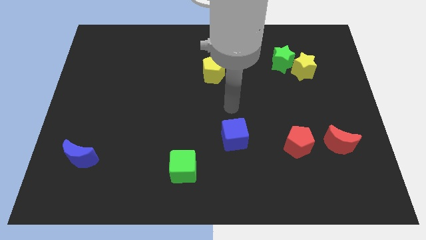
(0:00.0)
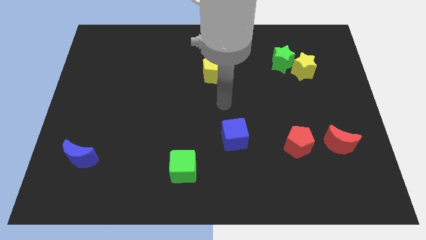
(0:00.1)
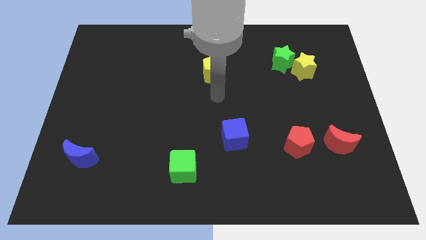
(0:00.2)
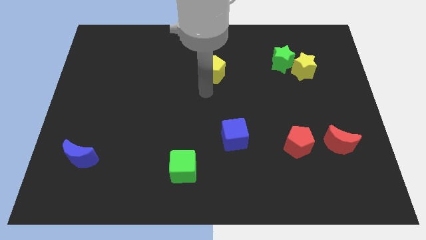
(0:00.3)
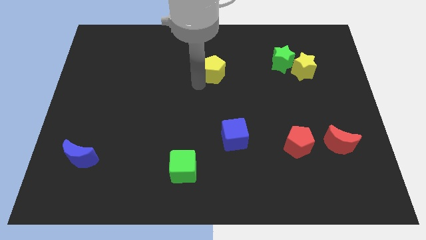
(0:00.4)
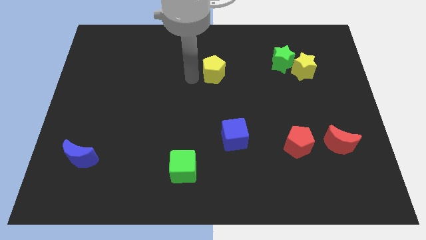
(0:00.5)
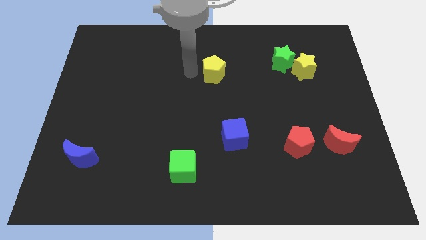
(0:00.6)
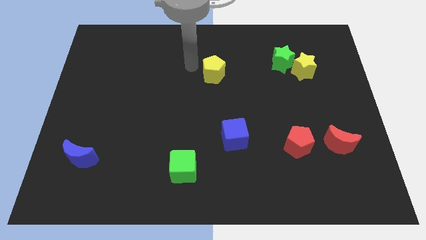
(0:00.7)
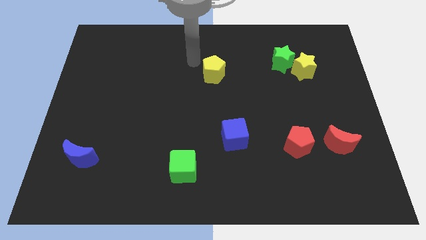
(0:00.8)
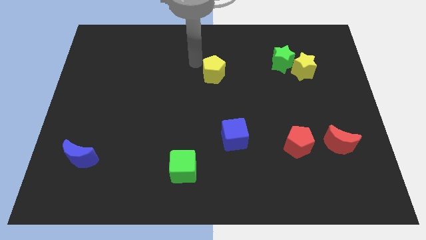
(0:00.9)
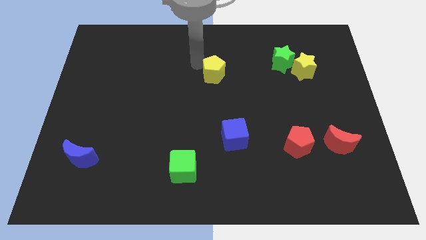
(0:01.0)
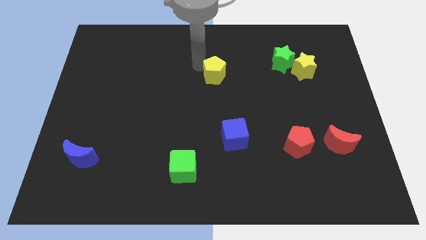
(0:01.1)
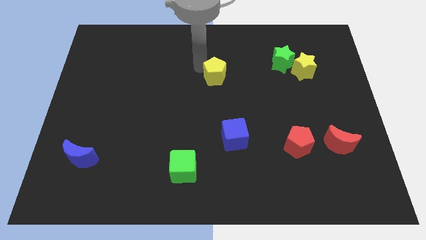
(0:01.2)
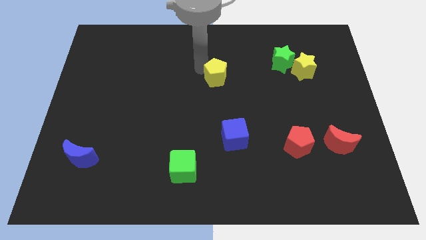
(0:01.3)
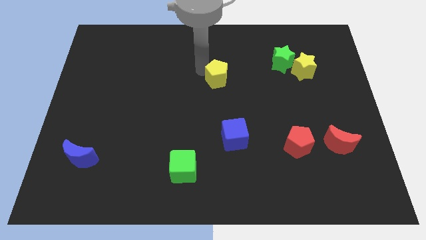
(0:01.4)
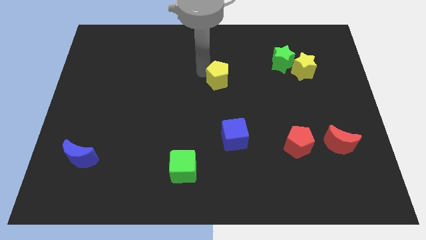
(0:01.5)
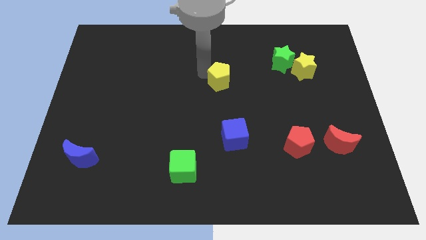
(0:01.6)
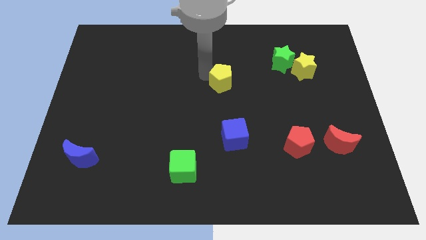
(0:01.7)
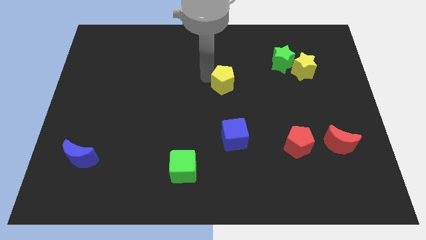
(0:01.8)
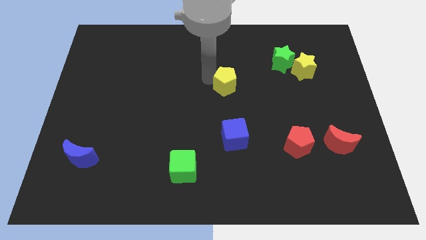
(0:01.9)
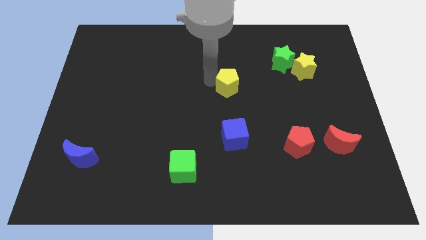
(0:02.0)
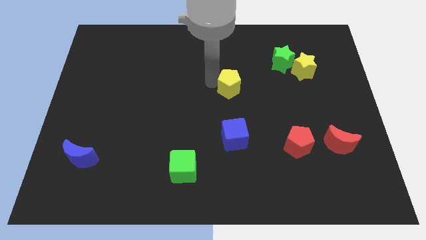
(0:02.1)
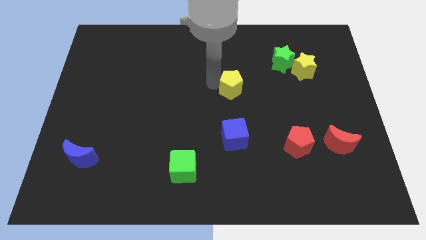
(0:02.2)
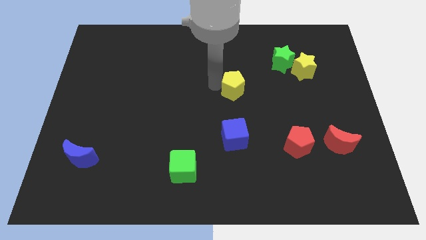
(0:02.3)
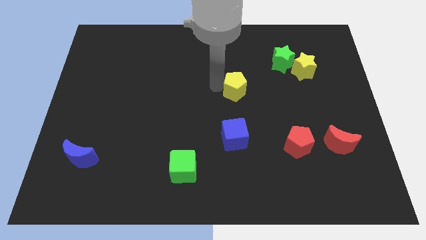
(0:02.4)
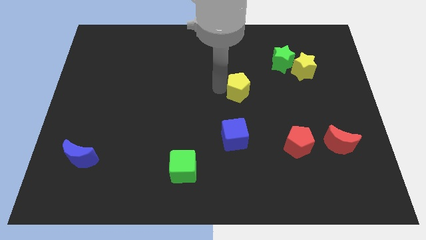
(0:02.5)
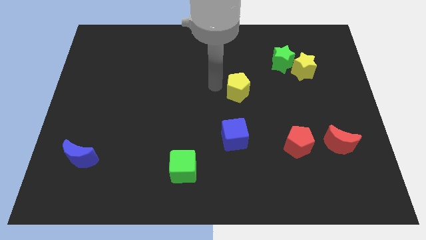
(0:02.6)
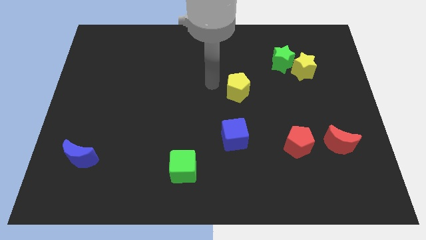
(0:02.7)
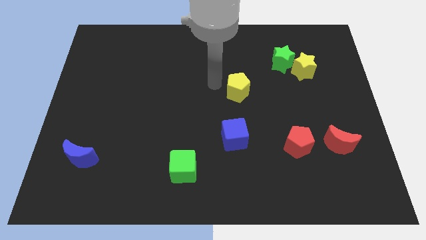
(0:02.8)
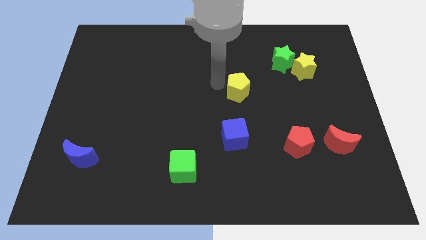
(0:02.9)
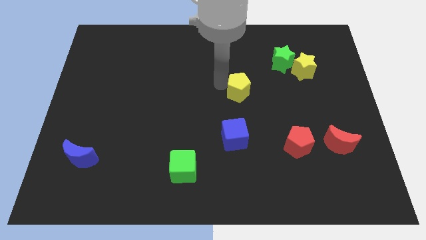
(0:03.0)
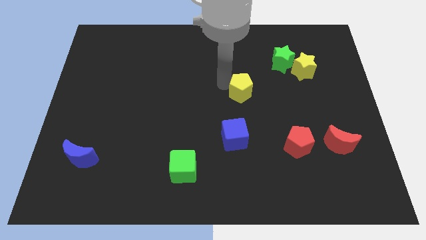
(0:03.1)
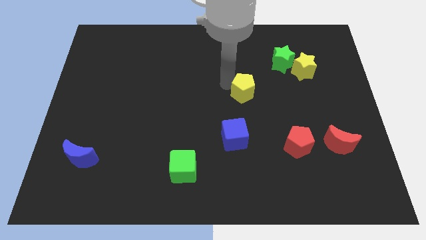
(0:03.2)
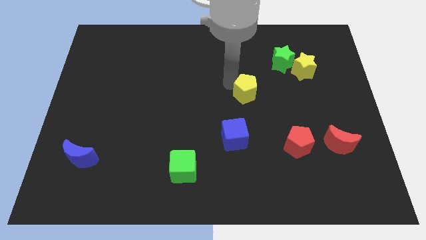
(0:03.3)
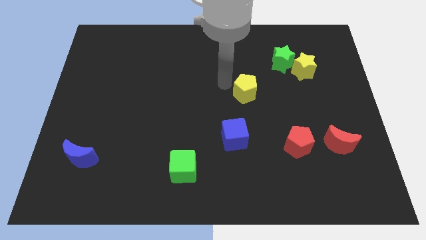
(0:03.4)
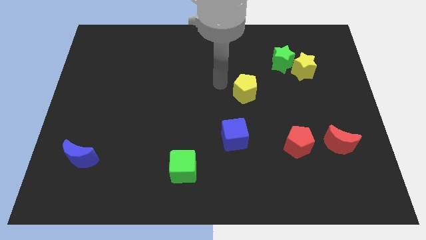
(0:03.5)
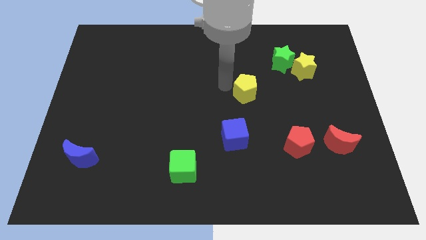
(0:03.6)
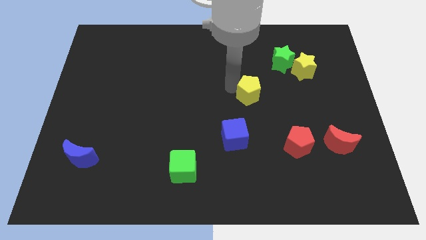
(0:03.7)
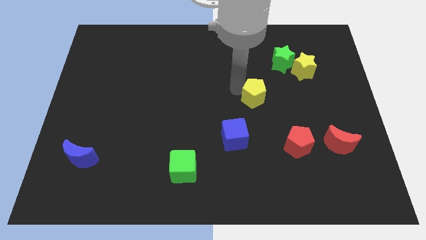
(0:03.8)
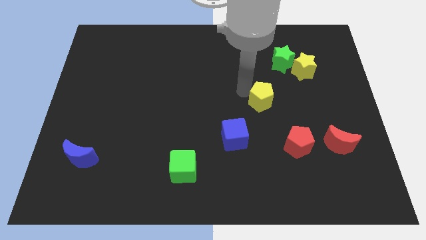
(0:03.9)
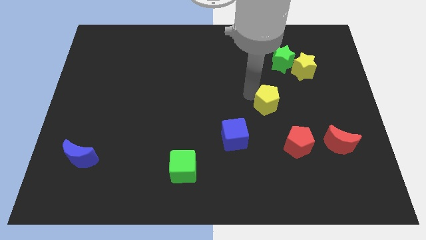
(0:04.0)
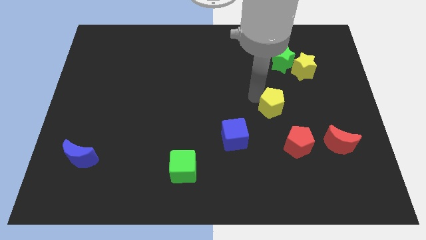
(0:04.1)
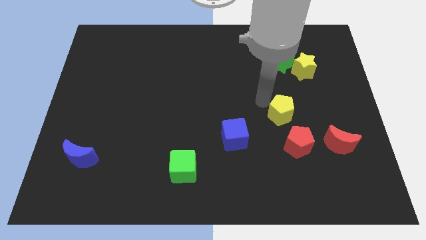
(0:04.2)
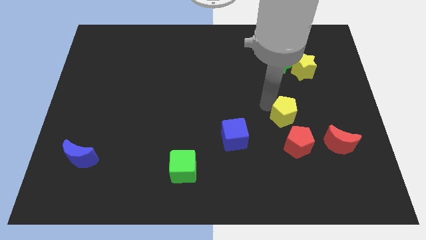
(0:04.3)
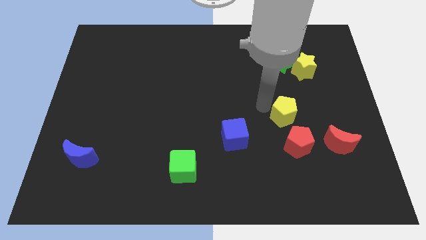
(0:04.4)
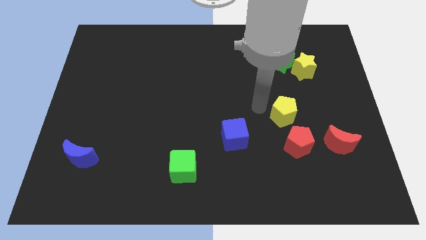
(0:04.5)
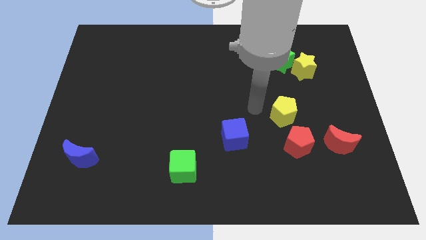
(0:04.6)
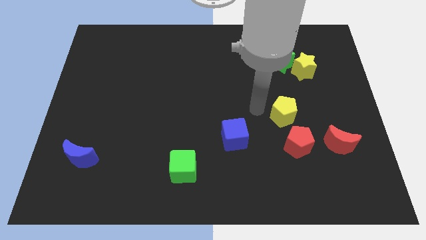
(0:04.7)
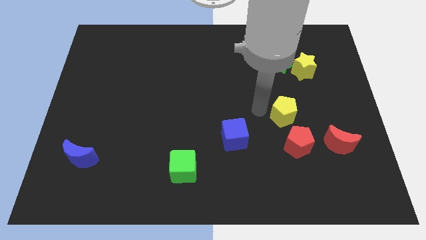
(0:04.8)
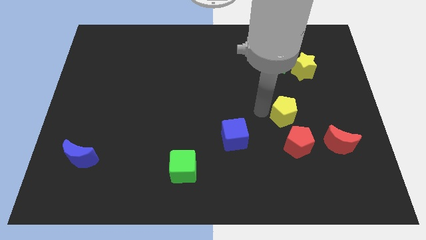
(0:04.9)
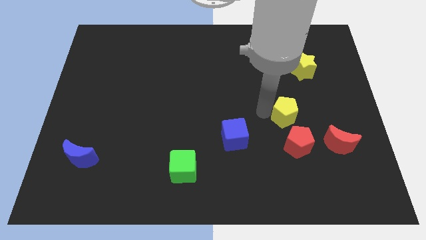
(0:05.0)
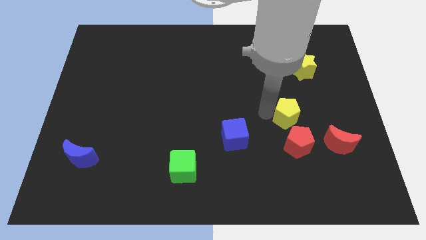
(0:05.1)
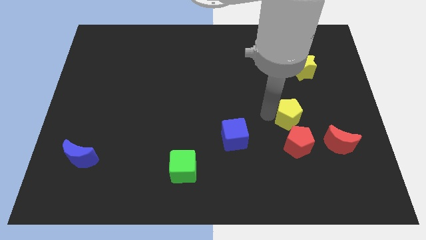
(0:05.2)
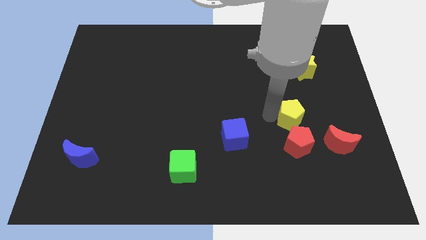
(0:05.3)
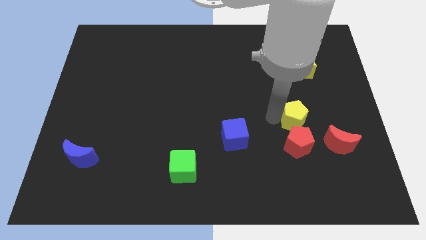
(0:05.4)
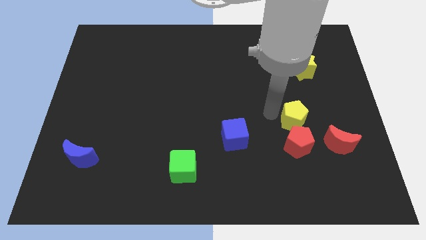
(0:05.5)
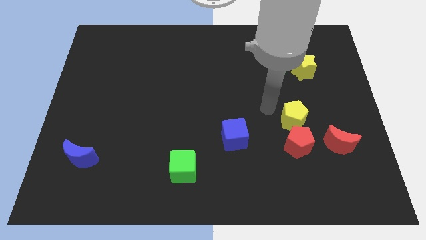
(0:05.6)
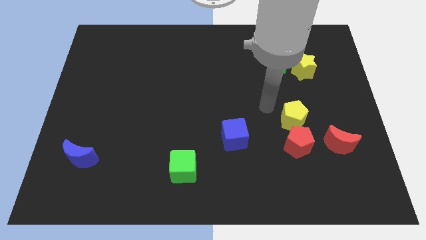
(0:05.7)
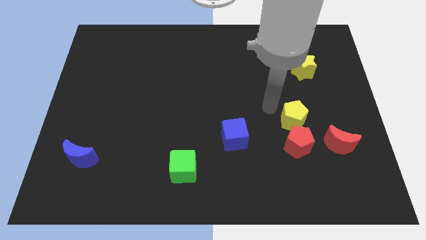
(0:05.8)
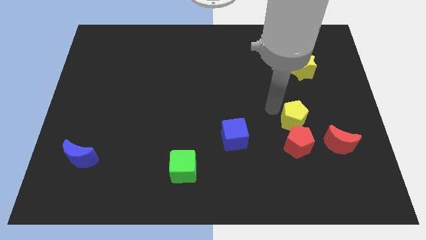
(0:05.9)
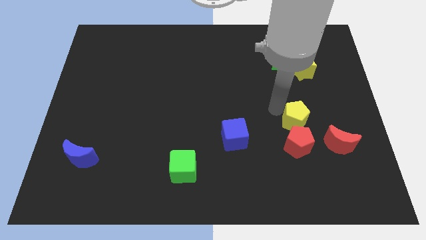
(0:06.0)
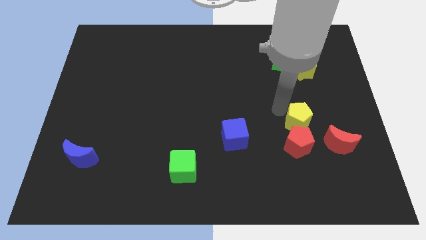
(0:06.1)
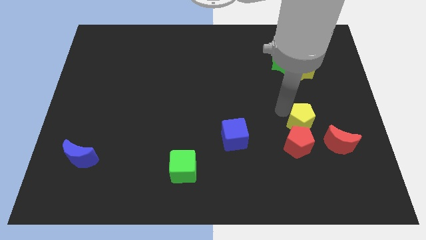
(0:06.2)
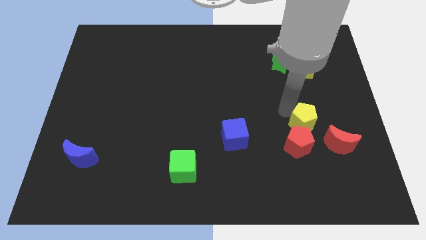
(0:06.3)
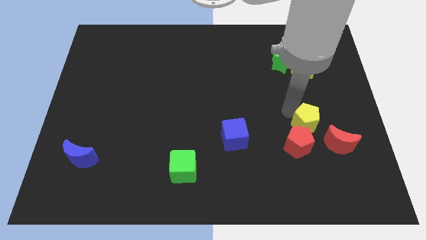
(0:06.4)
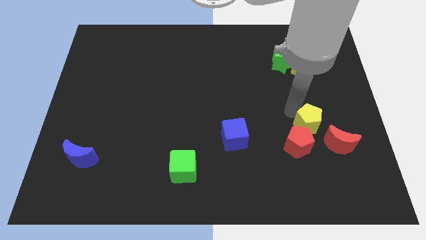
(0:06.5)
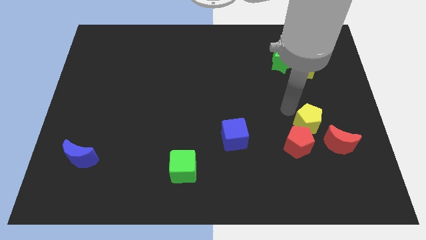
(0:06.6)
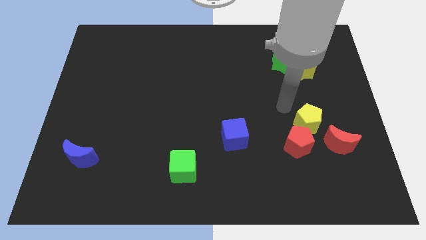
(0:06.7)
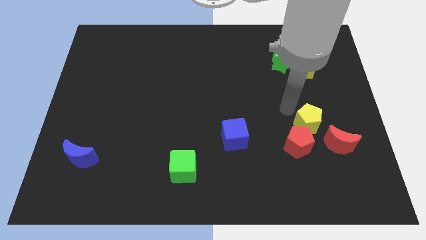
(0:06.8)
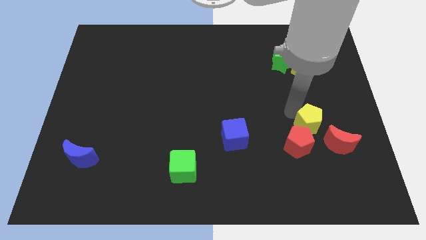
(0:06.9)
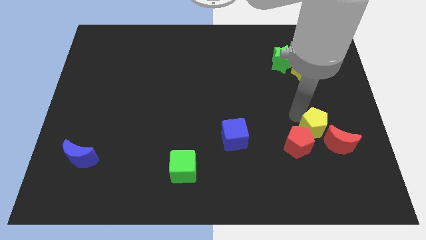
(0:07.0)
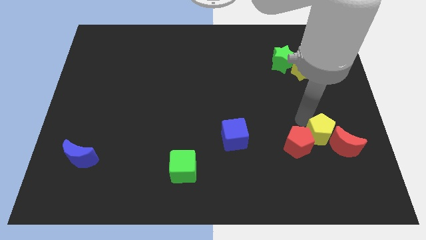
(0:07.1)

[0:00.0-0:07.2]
slide the yellow pentagon close to the red moon
